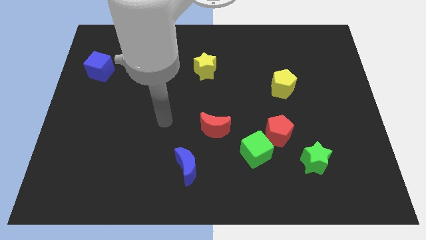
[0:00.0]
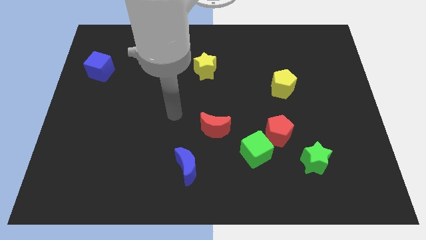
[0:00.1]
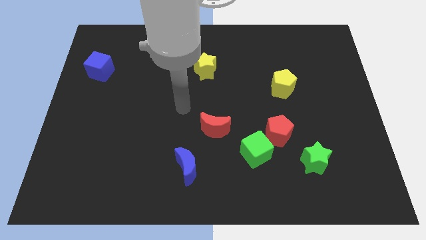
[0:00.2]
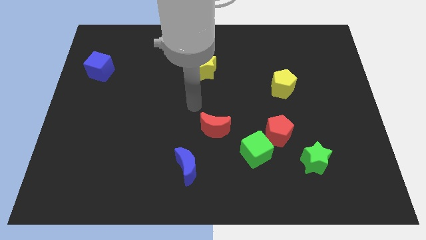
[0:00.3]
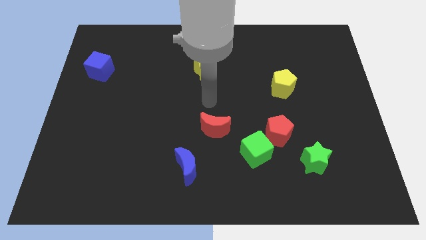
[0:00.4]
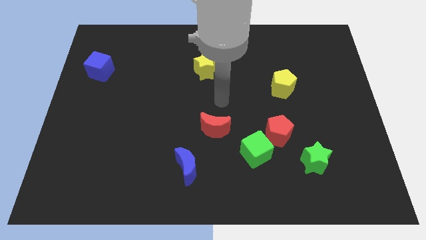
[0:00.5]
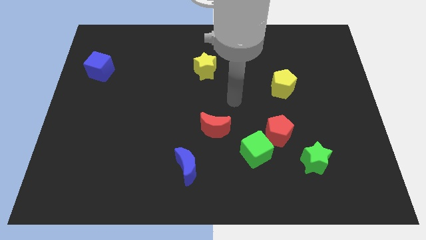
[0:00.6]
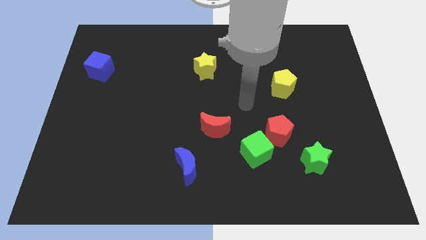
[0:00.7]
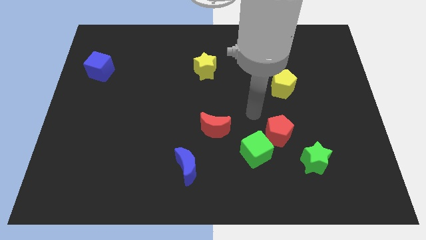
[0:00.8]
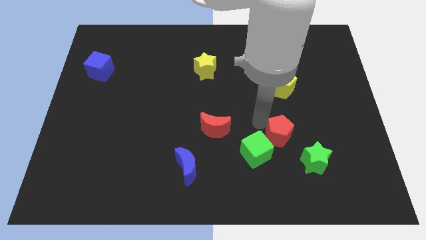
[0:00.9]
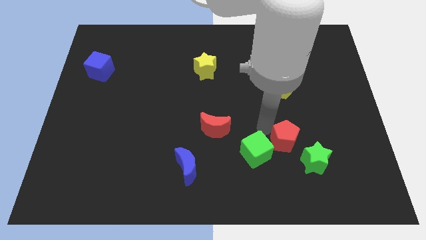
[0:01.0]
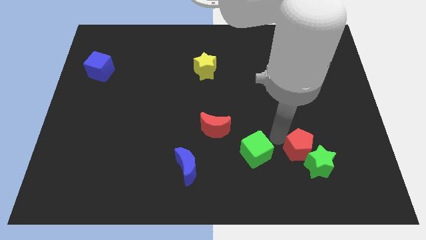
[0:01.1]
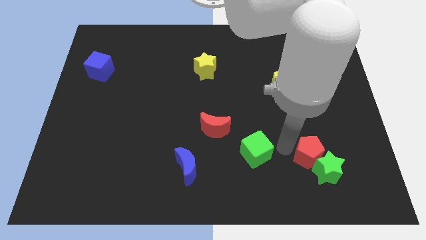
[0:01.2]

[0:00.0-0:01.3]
move the green cube away from the red pentagon

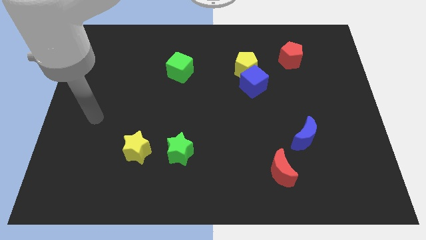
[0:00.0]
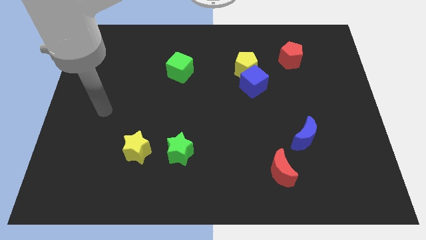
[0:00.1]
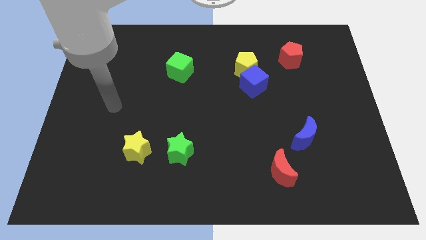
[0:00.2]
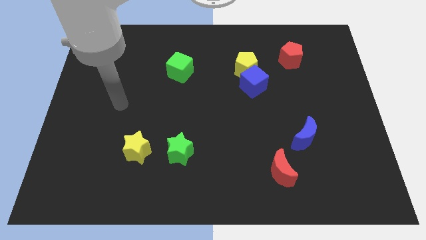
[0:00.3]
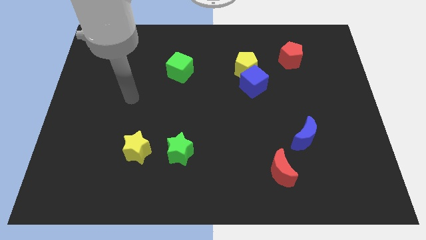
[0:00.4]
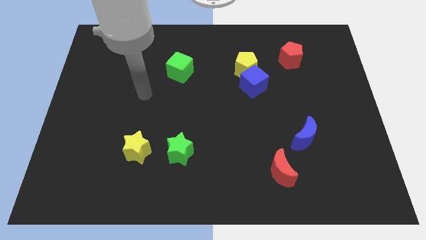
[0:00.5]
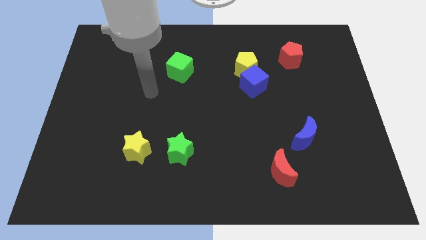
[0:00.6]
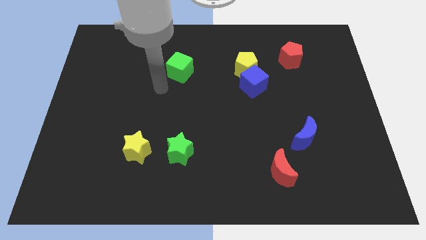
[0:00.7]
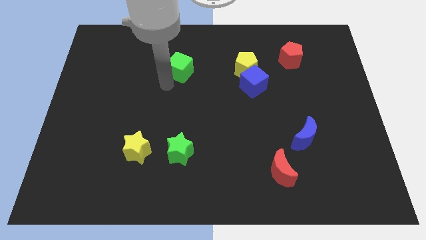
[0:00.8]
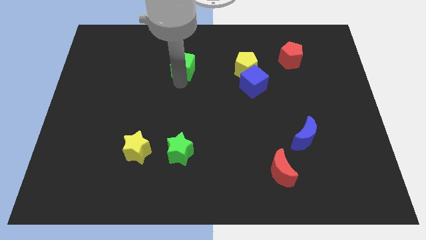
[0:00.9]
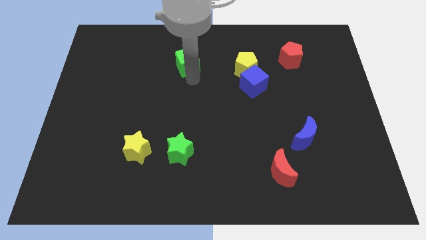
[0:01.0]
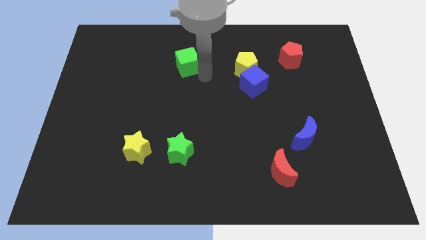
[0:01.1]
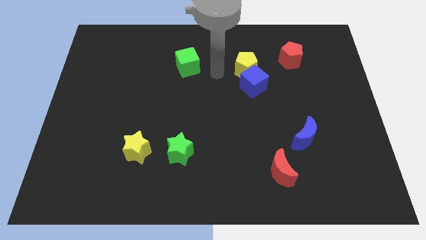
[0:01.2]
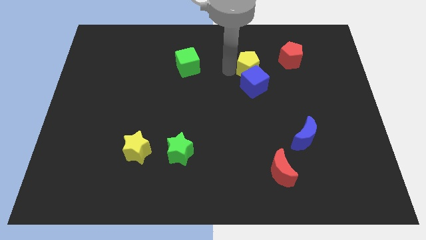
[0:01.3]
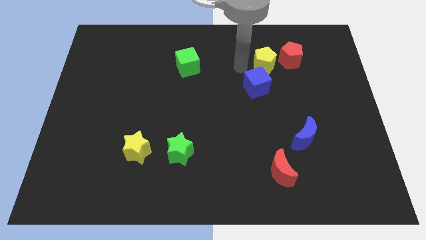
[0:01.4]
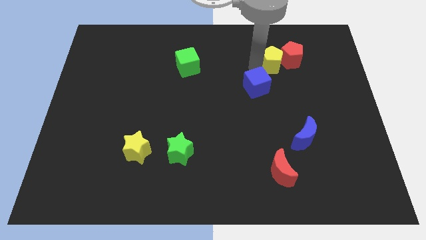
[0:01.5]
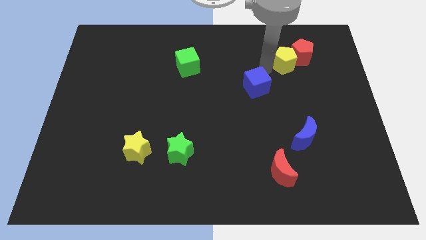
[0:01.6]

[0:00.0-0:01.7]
separate the blue cube from the yellow pentagon

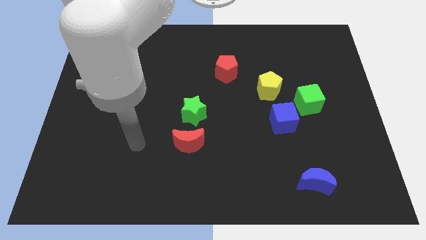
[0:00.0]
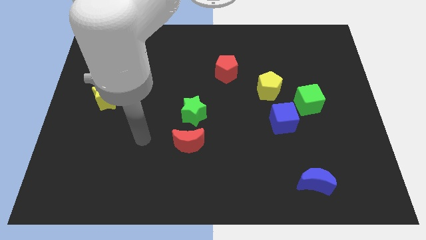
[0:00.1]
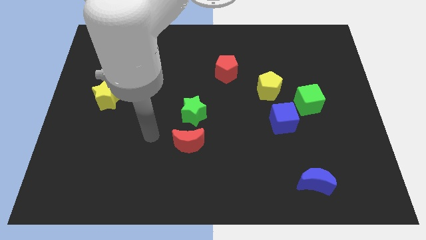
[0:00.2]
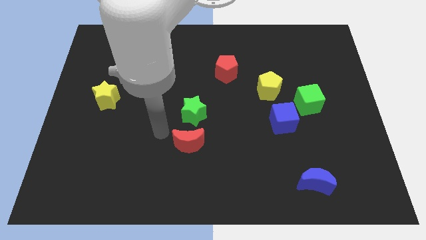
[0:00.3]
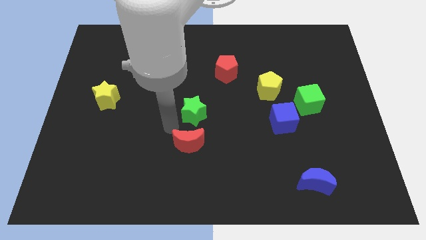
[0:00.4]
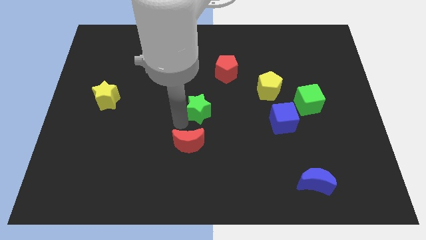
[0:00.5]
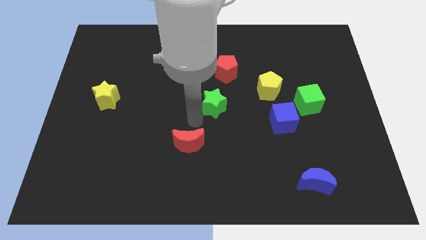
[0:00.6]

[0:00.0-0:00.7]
separate the red moon from the green star

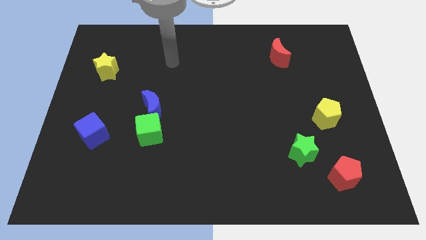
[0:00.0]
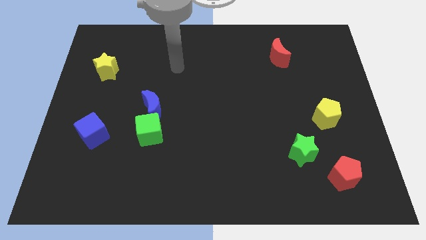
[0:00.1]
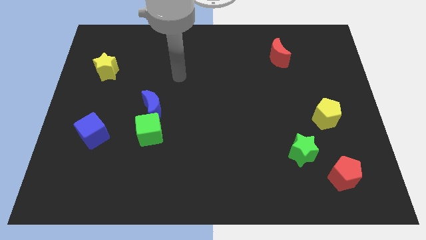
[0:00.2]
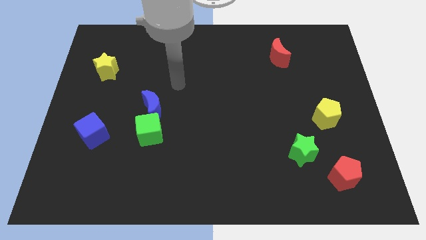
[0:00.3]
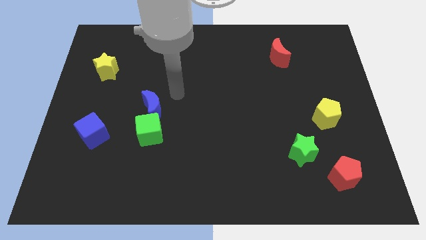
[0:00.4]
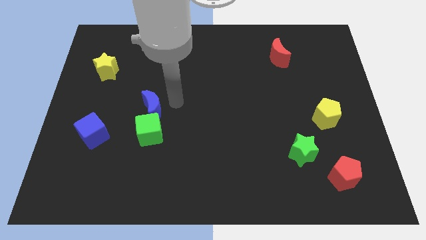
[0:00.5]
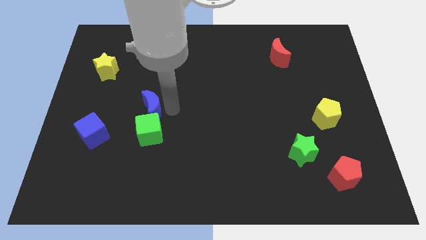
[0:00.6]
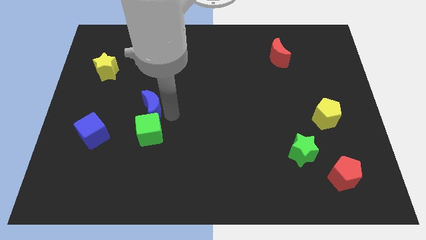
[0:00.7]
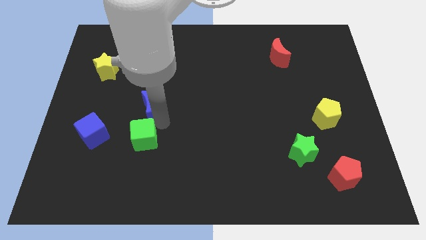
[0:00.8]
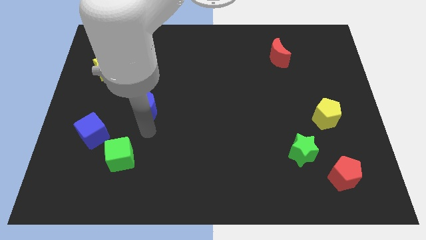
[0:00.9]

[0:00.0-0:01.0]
separate the blue moon from the green cube

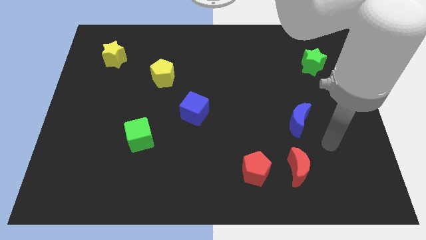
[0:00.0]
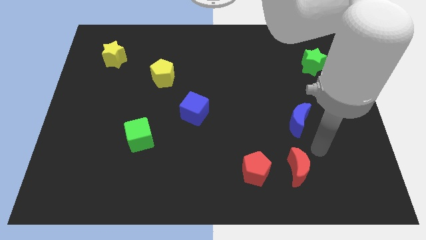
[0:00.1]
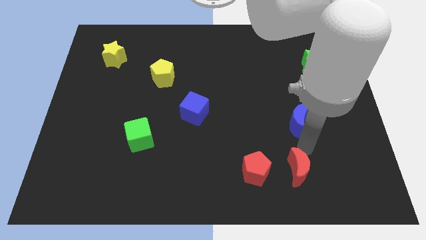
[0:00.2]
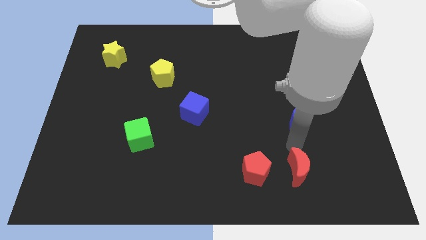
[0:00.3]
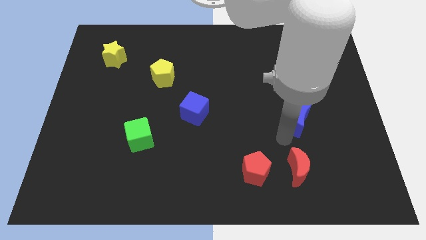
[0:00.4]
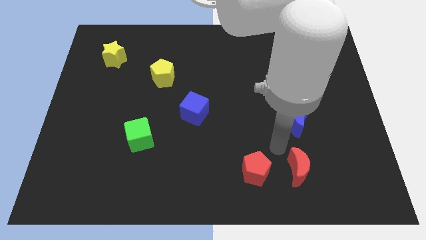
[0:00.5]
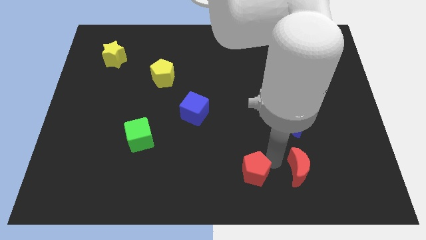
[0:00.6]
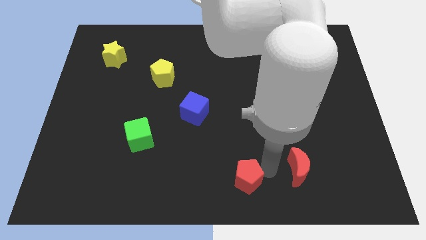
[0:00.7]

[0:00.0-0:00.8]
pull the red moon apart from the red pentagon

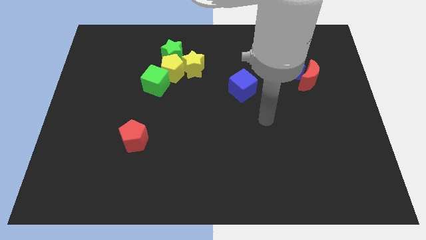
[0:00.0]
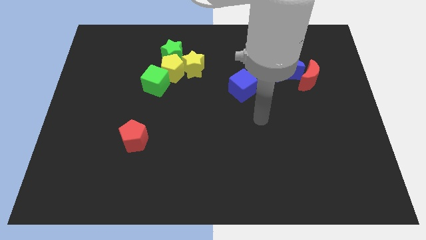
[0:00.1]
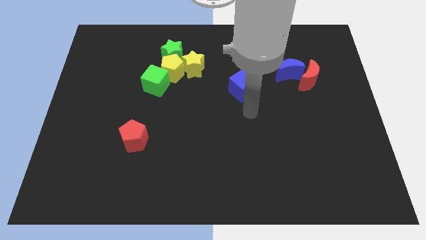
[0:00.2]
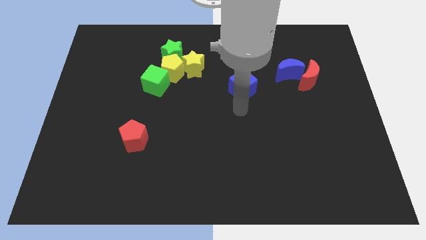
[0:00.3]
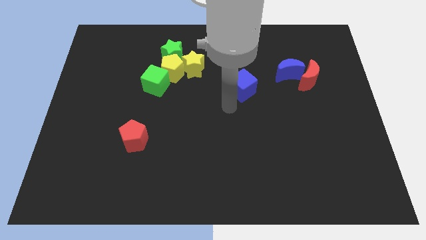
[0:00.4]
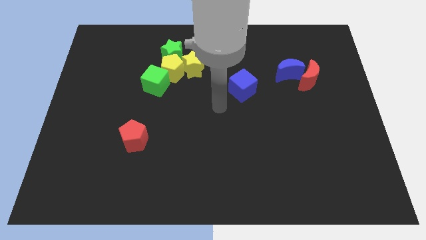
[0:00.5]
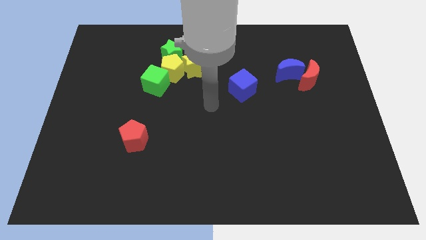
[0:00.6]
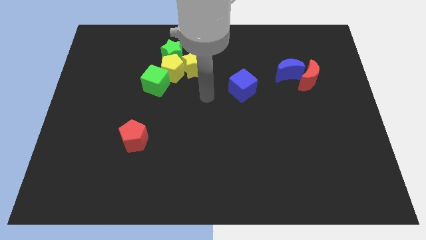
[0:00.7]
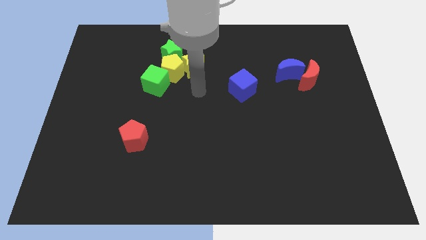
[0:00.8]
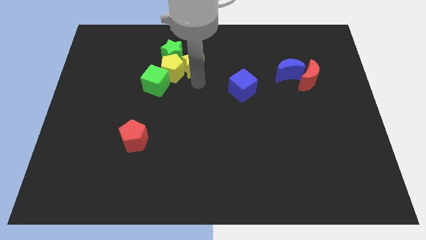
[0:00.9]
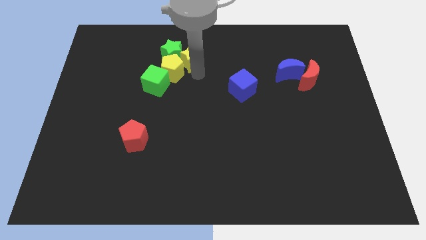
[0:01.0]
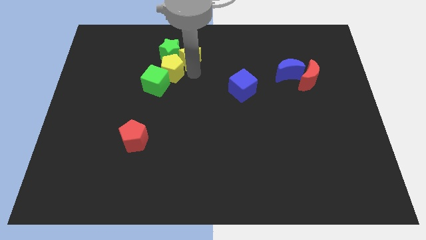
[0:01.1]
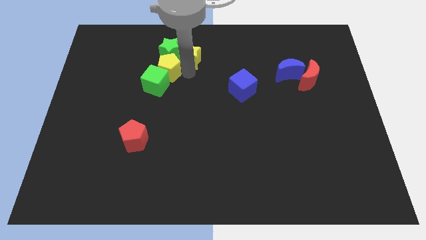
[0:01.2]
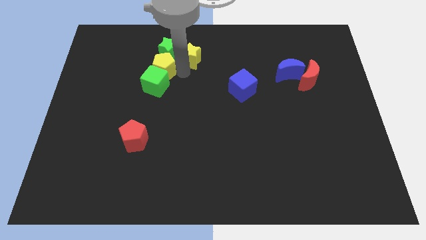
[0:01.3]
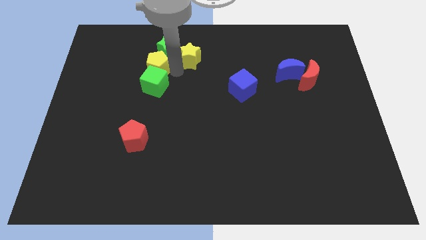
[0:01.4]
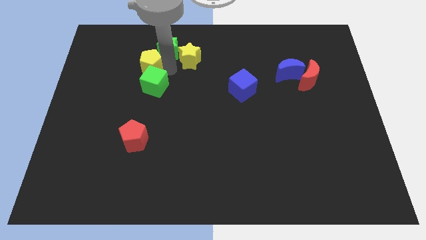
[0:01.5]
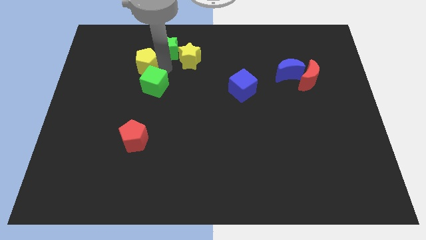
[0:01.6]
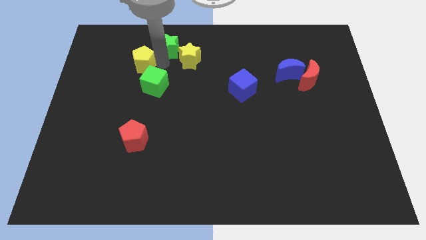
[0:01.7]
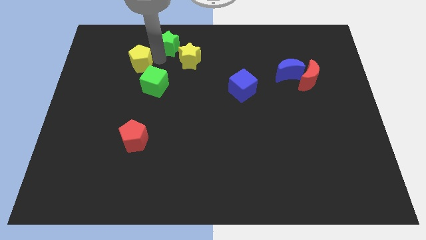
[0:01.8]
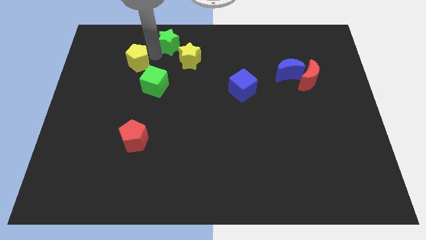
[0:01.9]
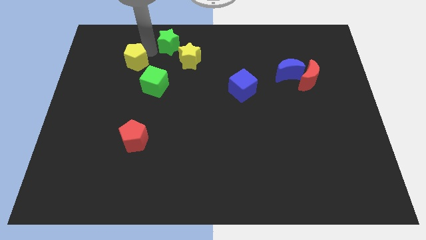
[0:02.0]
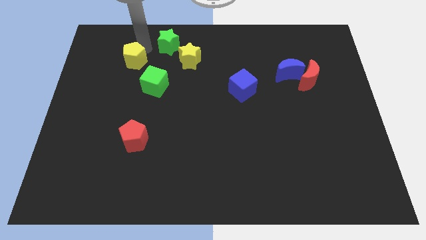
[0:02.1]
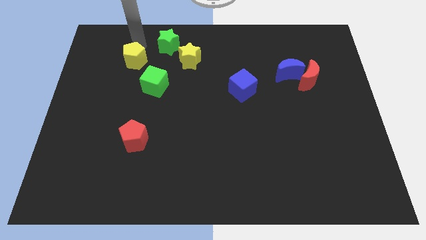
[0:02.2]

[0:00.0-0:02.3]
pull the yellow pentagon apart from the green star, green cube, and yellow star

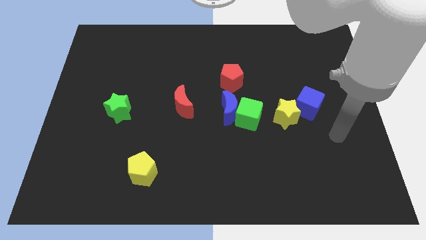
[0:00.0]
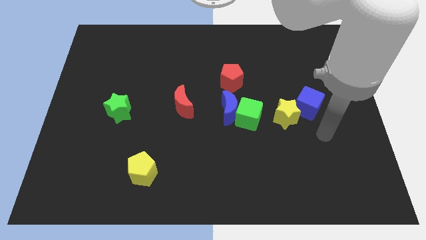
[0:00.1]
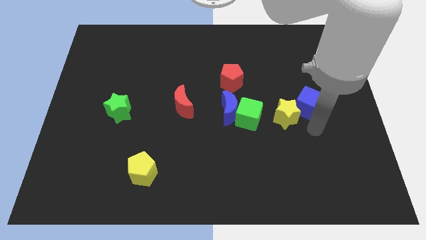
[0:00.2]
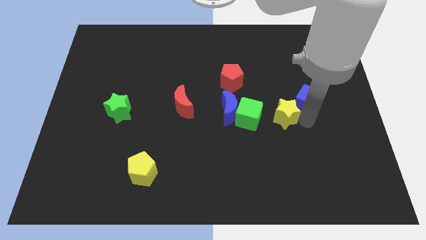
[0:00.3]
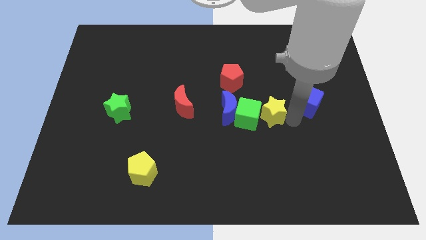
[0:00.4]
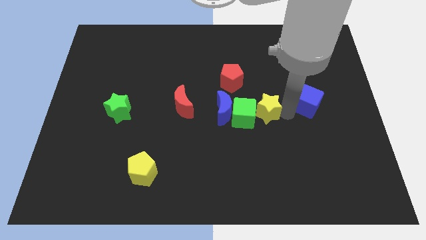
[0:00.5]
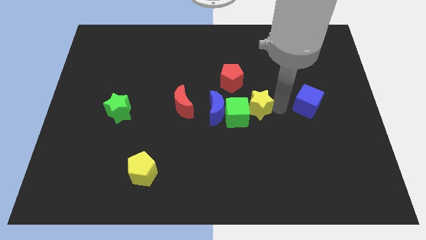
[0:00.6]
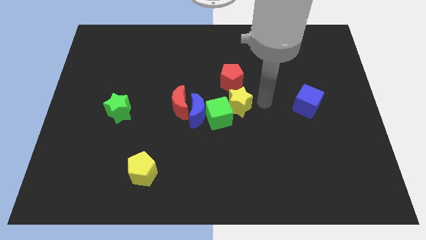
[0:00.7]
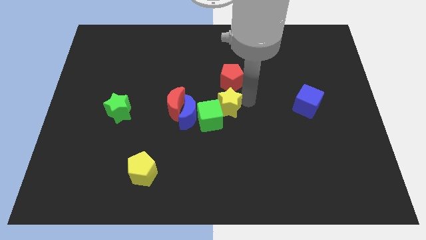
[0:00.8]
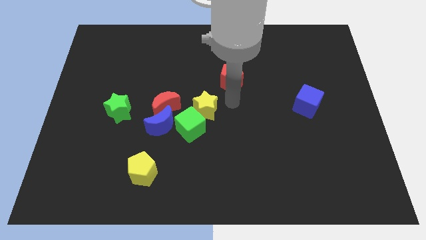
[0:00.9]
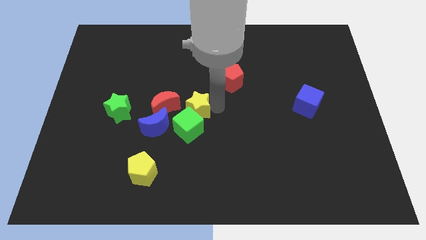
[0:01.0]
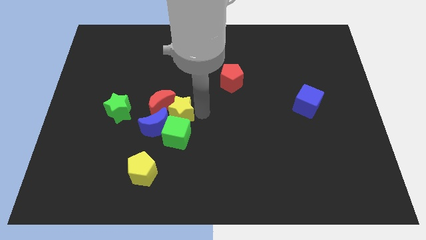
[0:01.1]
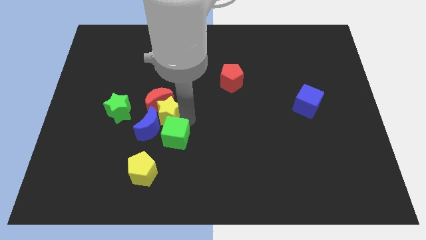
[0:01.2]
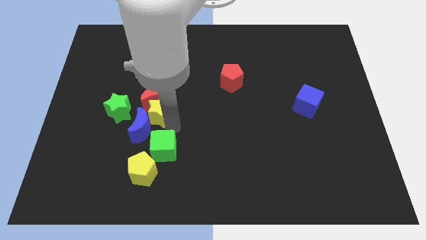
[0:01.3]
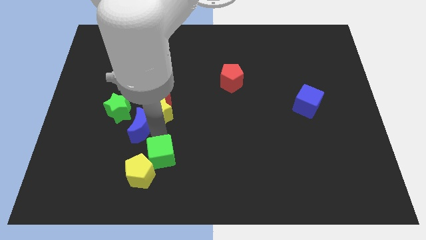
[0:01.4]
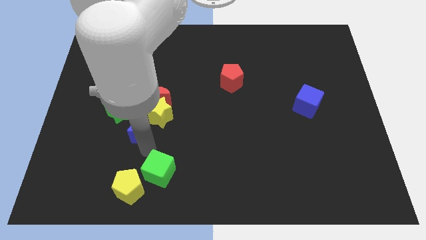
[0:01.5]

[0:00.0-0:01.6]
move the green cube away from the blue moon and yellow star
